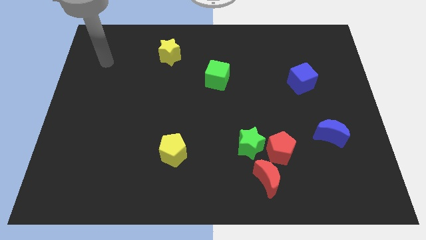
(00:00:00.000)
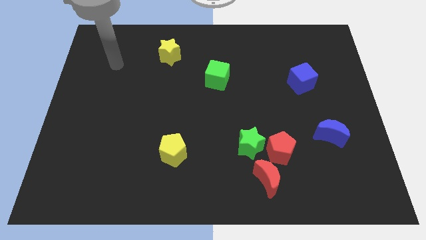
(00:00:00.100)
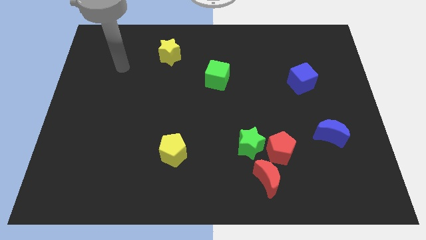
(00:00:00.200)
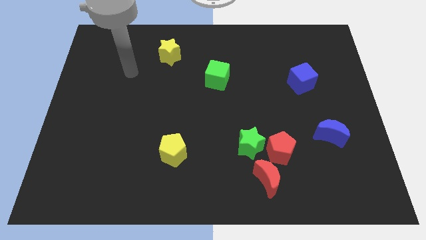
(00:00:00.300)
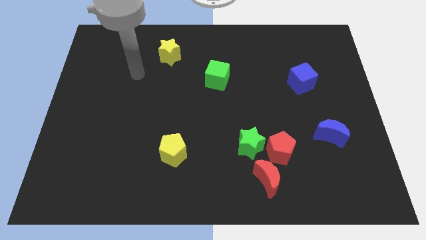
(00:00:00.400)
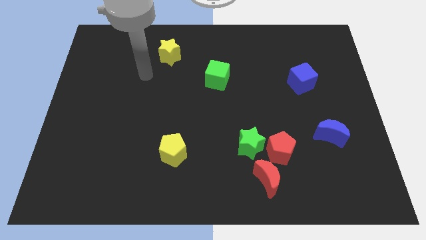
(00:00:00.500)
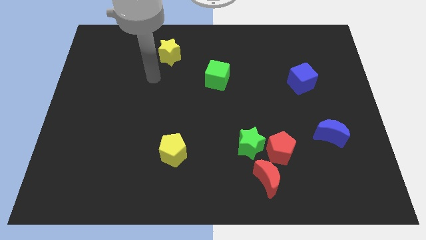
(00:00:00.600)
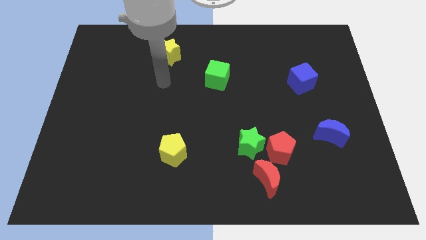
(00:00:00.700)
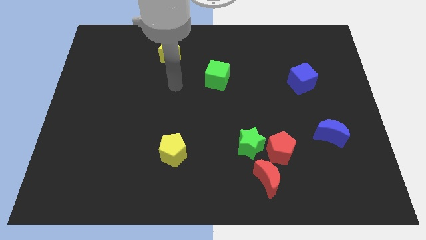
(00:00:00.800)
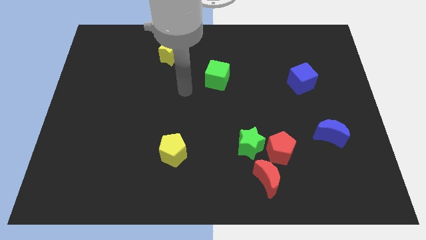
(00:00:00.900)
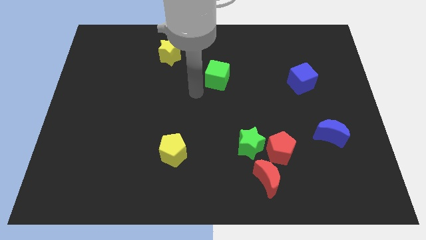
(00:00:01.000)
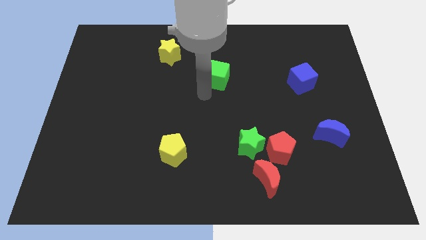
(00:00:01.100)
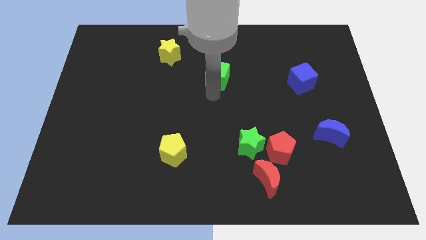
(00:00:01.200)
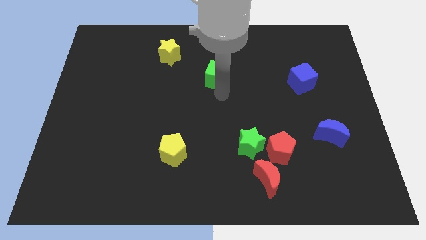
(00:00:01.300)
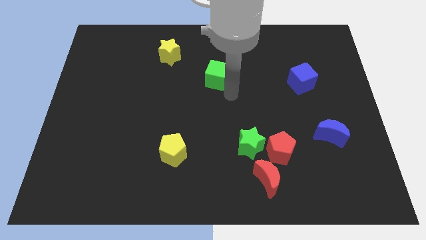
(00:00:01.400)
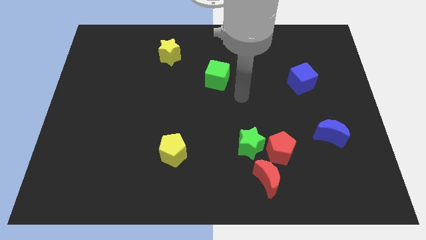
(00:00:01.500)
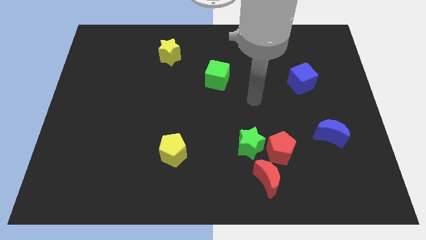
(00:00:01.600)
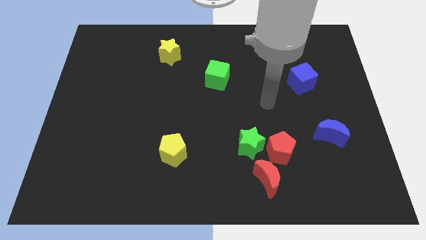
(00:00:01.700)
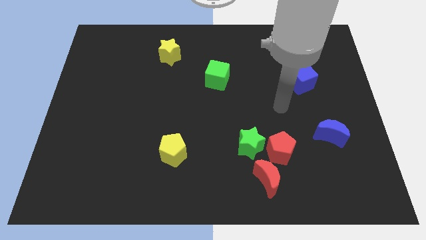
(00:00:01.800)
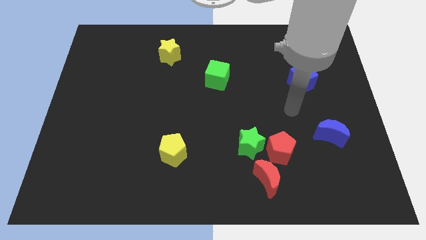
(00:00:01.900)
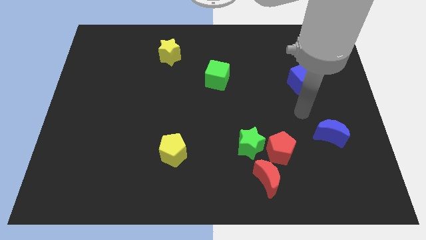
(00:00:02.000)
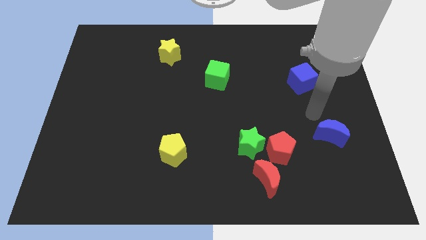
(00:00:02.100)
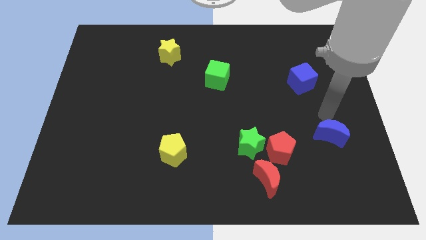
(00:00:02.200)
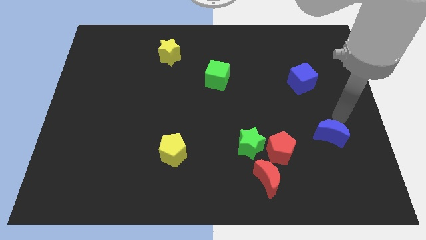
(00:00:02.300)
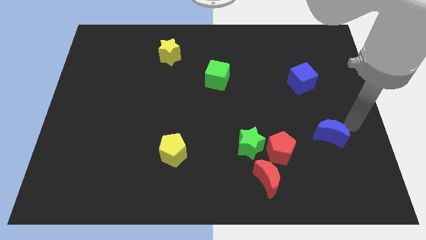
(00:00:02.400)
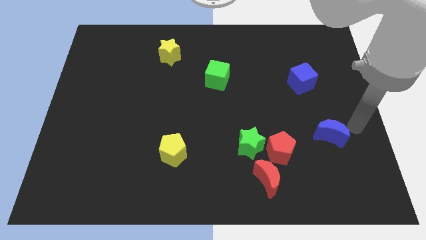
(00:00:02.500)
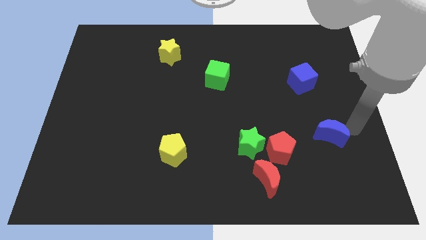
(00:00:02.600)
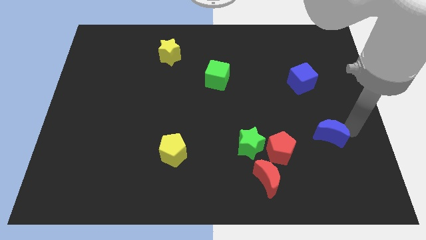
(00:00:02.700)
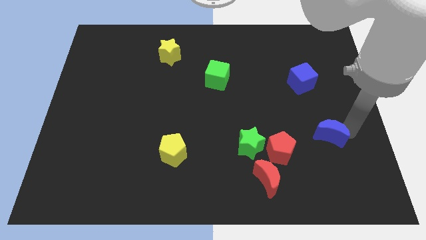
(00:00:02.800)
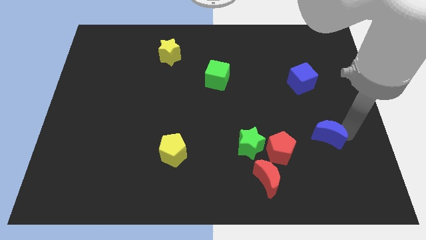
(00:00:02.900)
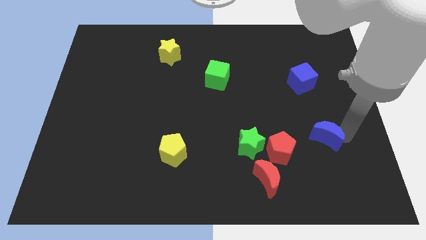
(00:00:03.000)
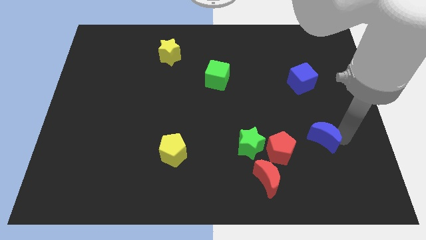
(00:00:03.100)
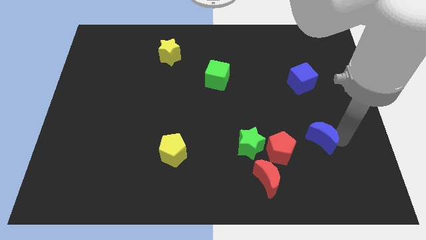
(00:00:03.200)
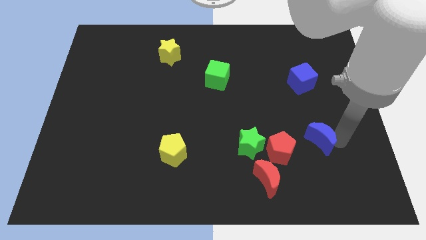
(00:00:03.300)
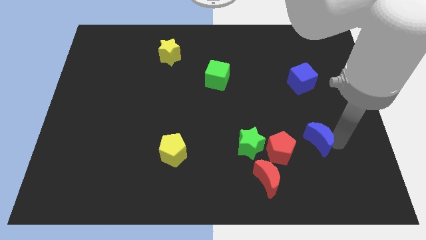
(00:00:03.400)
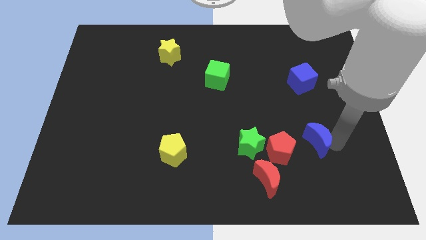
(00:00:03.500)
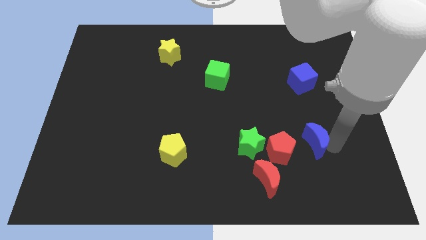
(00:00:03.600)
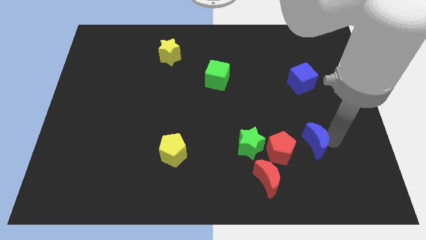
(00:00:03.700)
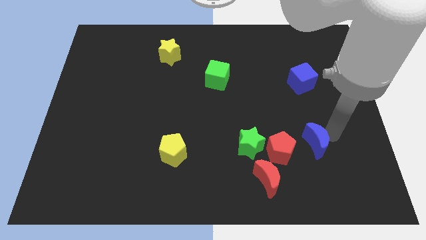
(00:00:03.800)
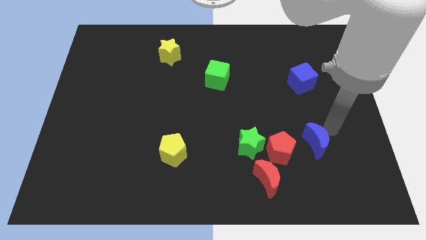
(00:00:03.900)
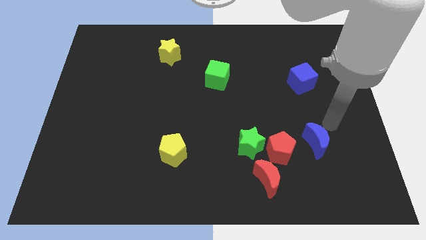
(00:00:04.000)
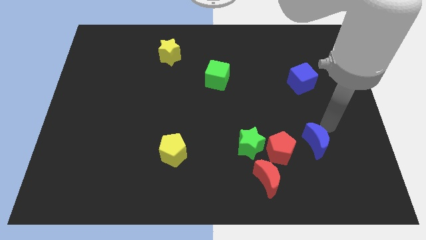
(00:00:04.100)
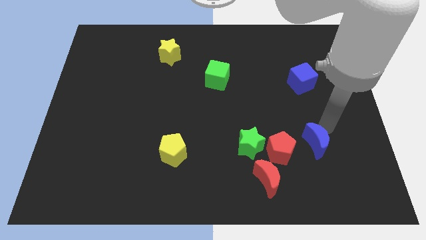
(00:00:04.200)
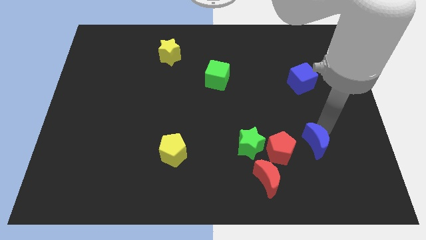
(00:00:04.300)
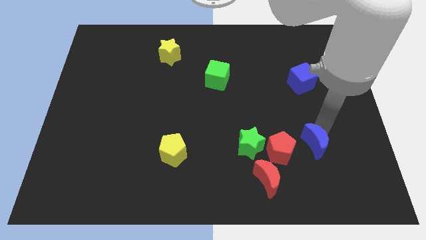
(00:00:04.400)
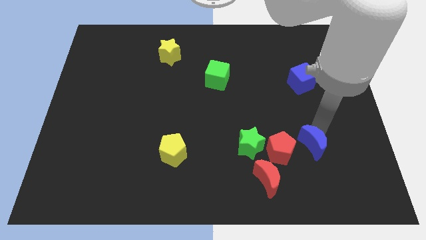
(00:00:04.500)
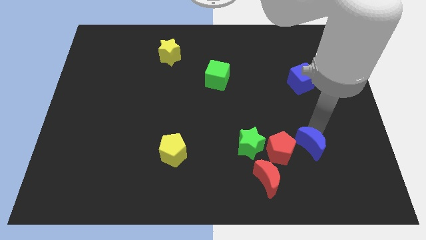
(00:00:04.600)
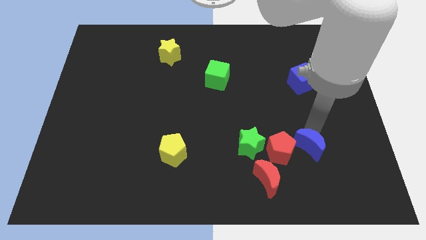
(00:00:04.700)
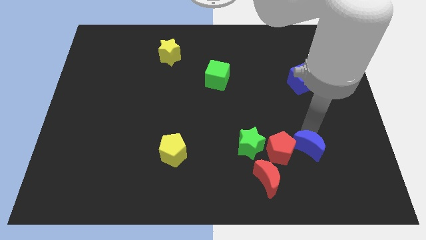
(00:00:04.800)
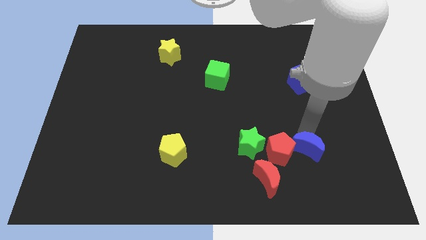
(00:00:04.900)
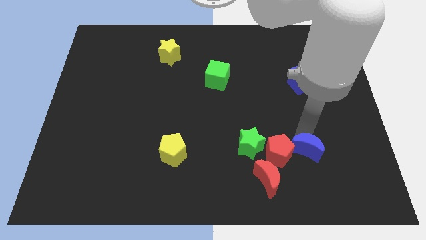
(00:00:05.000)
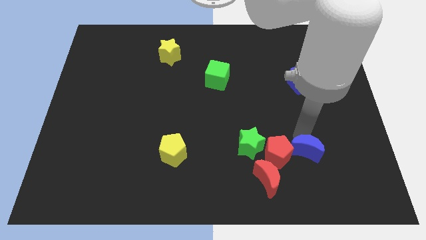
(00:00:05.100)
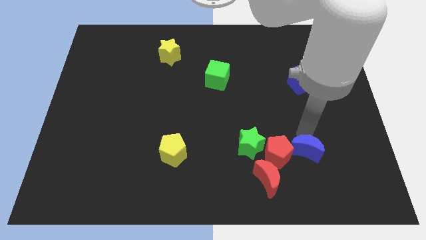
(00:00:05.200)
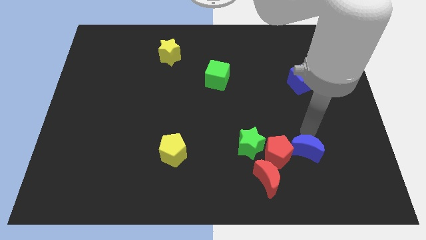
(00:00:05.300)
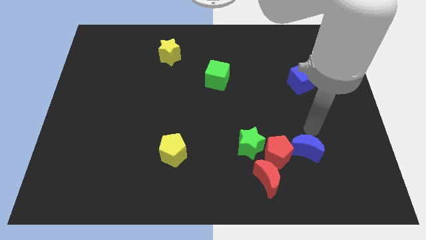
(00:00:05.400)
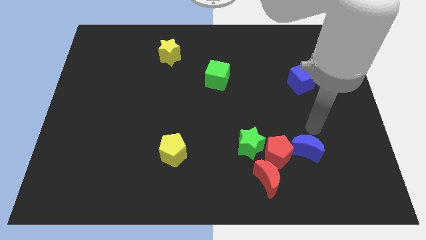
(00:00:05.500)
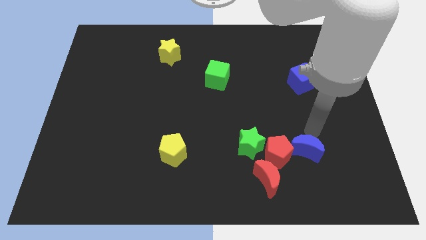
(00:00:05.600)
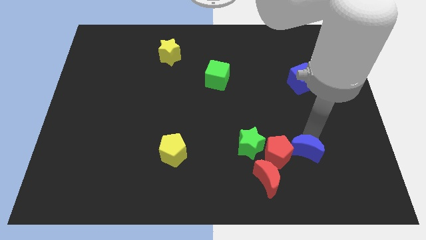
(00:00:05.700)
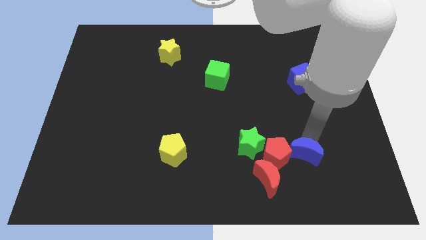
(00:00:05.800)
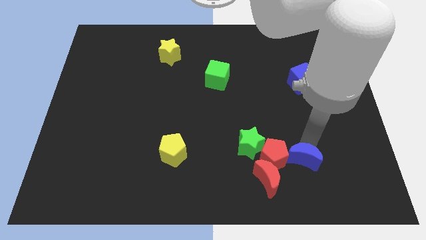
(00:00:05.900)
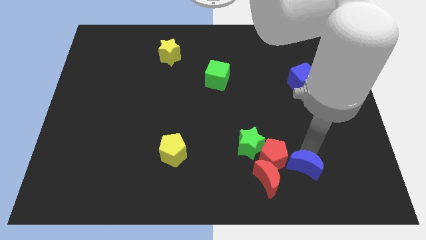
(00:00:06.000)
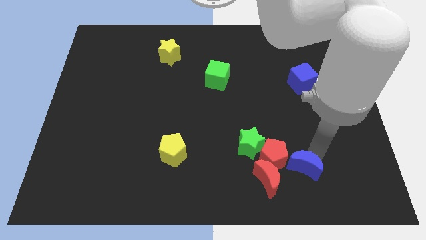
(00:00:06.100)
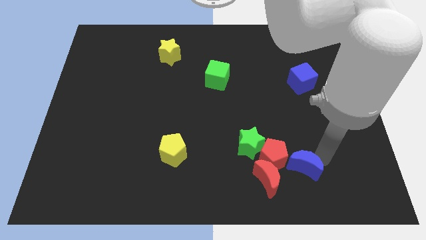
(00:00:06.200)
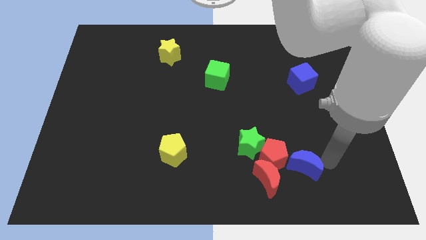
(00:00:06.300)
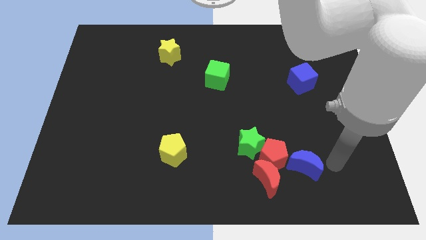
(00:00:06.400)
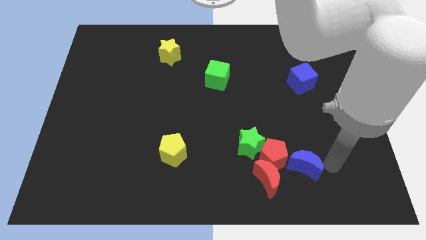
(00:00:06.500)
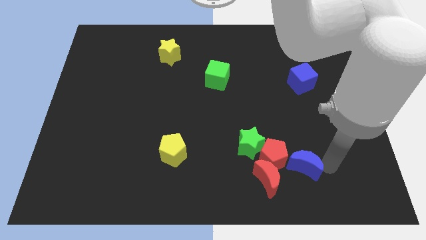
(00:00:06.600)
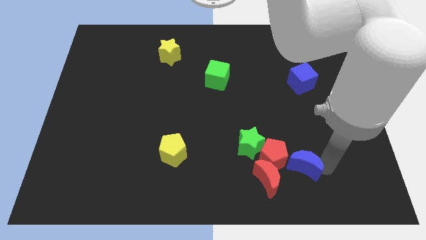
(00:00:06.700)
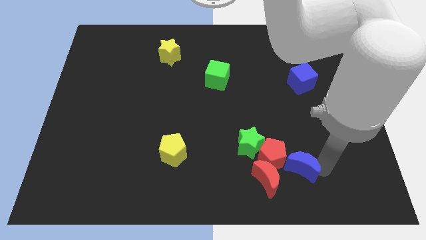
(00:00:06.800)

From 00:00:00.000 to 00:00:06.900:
move the blue moon to the bottom right side of the green star

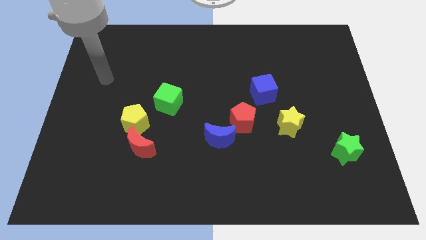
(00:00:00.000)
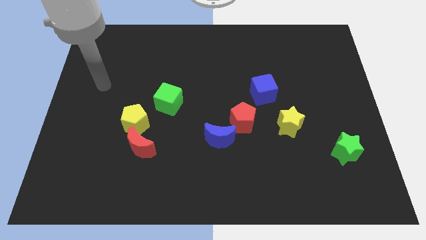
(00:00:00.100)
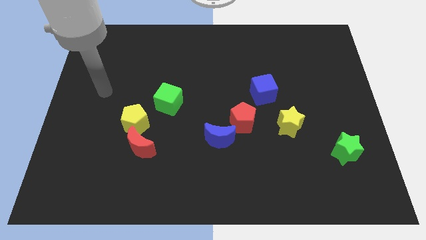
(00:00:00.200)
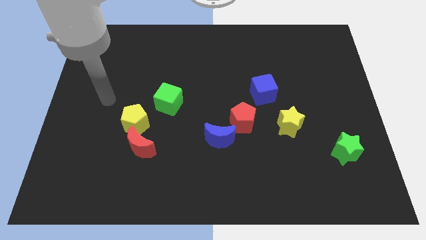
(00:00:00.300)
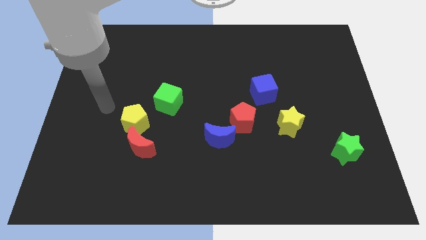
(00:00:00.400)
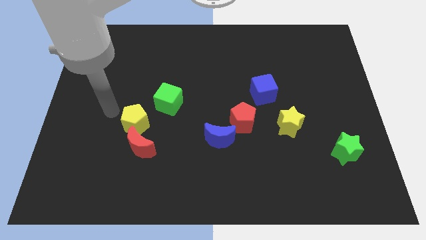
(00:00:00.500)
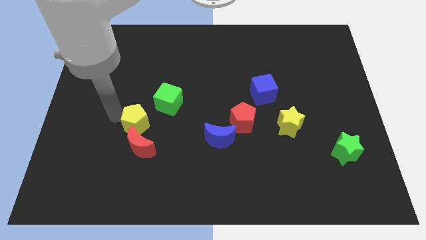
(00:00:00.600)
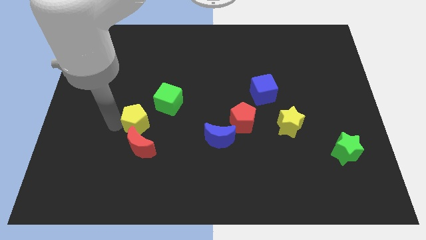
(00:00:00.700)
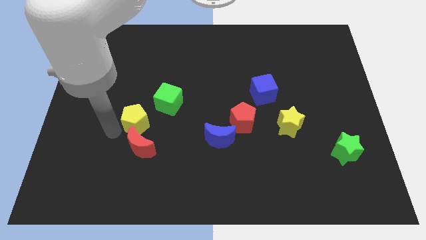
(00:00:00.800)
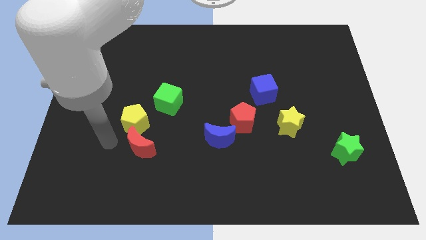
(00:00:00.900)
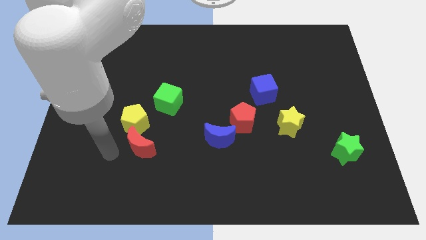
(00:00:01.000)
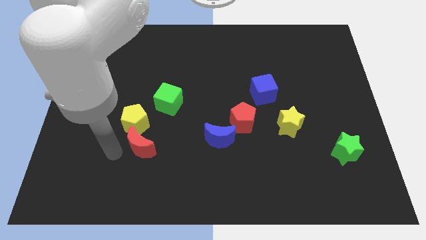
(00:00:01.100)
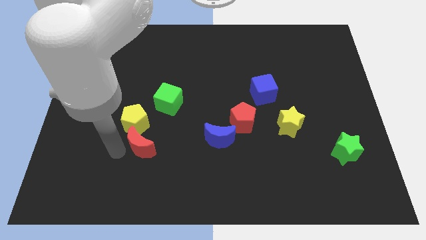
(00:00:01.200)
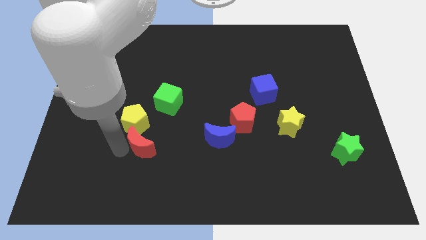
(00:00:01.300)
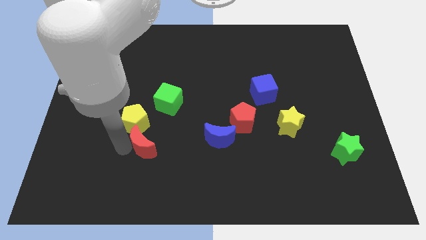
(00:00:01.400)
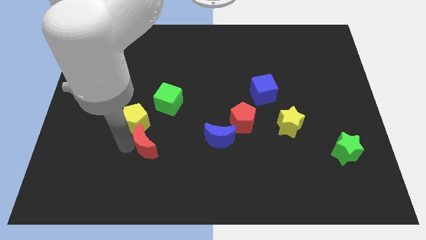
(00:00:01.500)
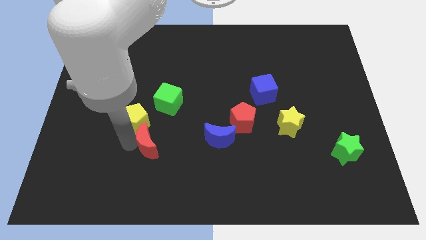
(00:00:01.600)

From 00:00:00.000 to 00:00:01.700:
slide the red moon left of the blue moon
